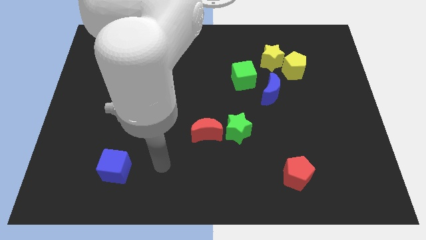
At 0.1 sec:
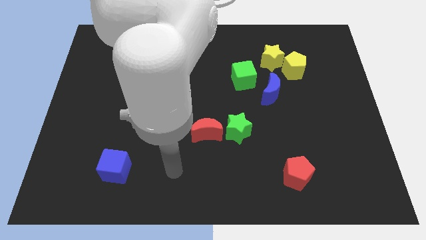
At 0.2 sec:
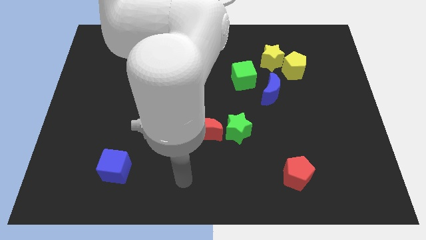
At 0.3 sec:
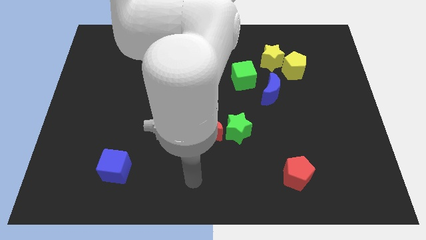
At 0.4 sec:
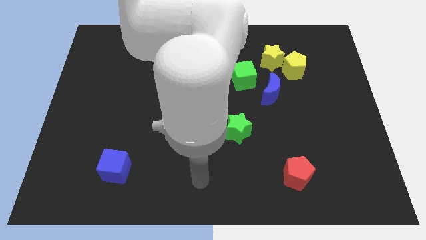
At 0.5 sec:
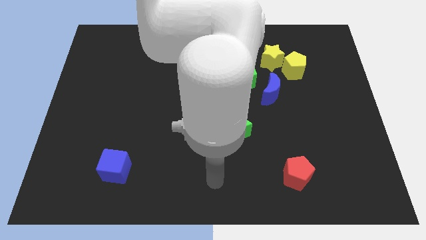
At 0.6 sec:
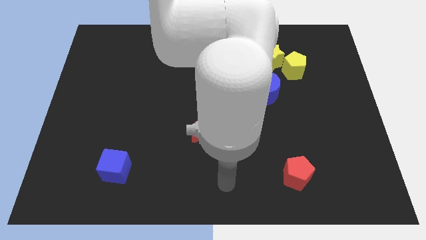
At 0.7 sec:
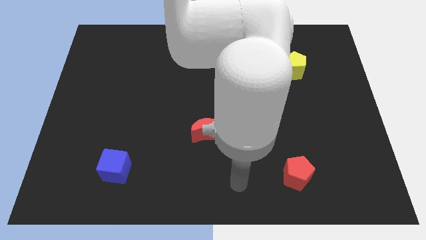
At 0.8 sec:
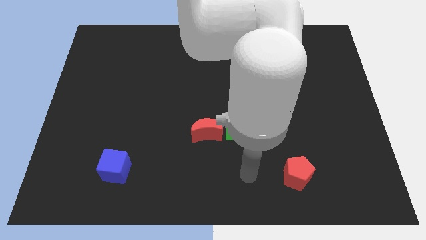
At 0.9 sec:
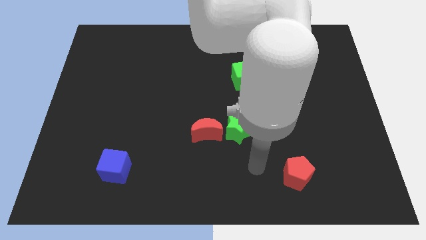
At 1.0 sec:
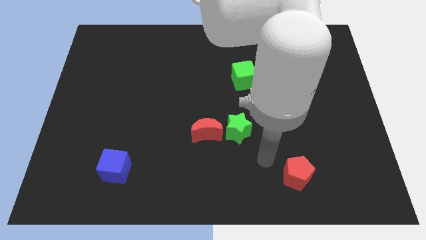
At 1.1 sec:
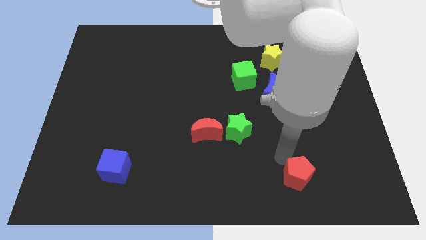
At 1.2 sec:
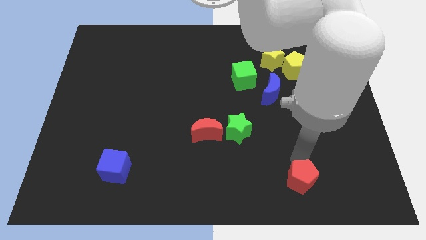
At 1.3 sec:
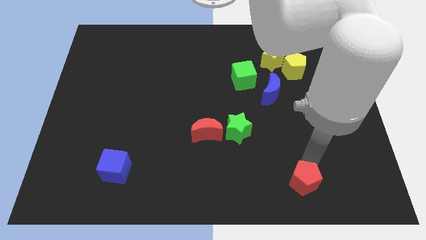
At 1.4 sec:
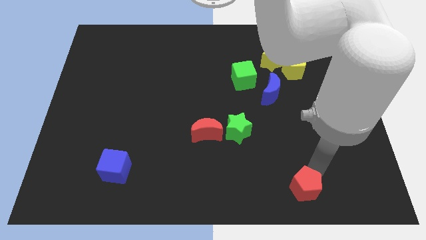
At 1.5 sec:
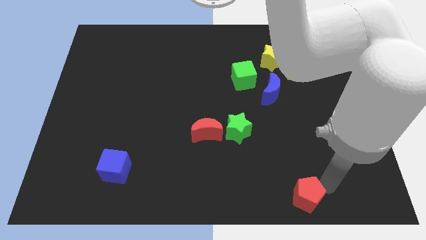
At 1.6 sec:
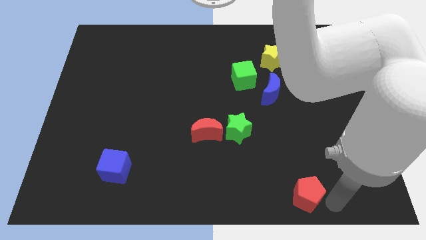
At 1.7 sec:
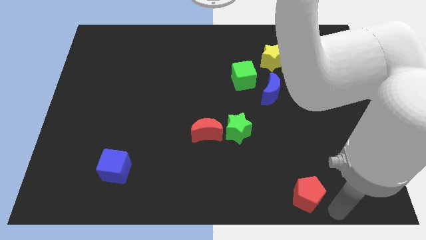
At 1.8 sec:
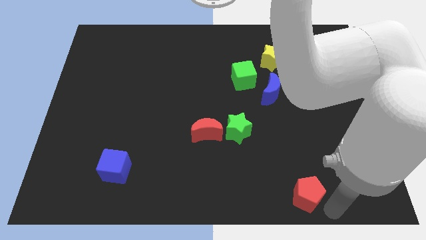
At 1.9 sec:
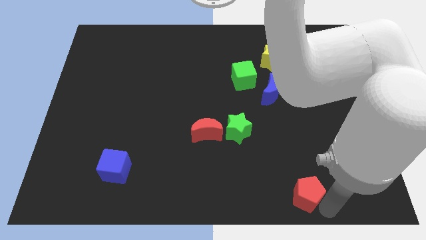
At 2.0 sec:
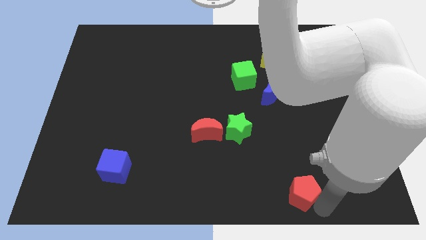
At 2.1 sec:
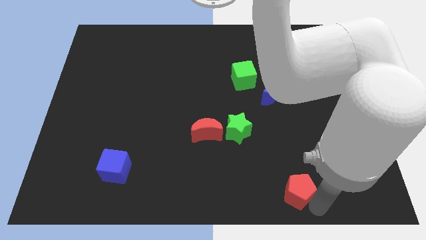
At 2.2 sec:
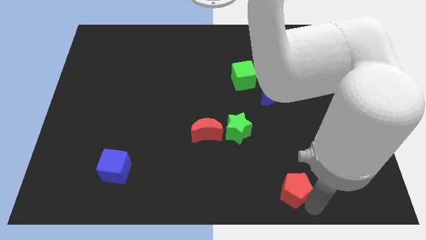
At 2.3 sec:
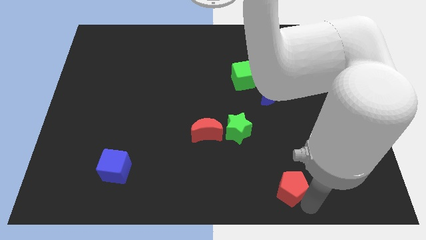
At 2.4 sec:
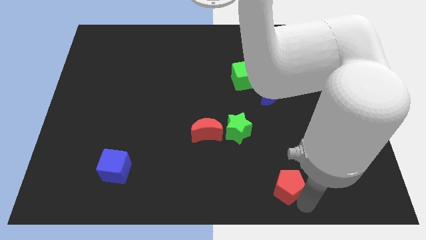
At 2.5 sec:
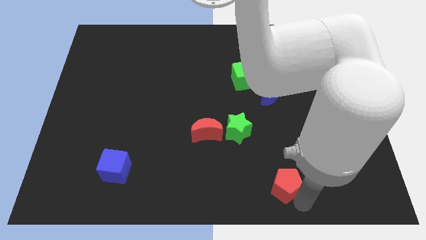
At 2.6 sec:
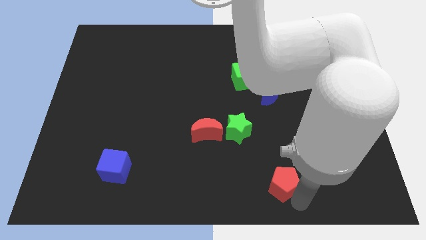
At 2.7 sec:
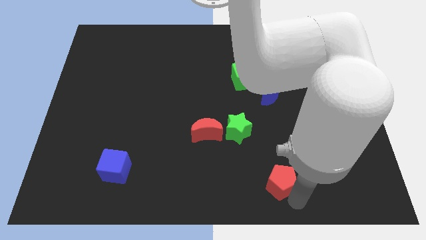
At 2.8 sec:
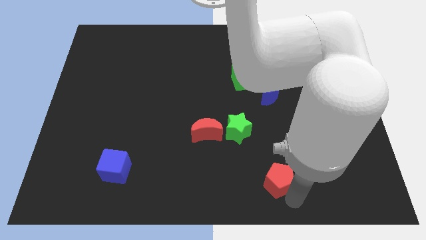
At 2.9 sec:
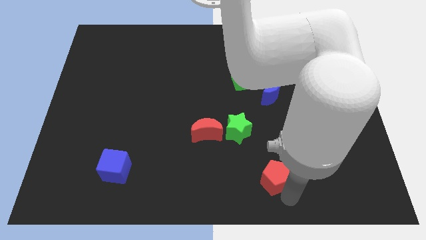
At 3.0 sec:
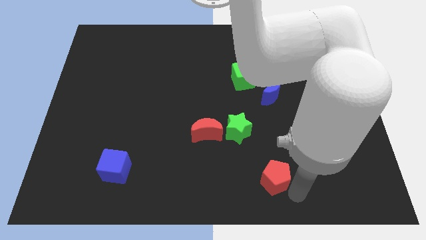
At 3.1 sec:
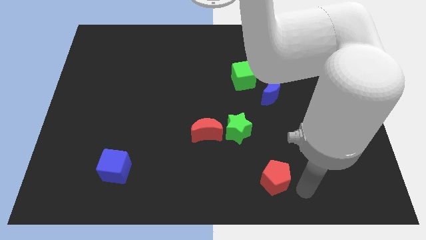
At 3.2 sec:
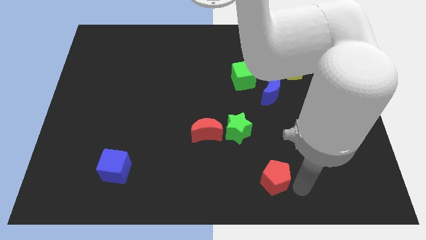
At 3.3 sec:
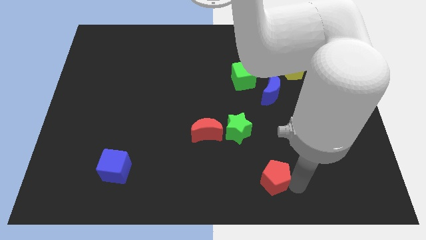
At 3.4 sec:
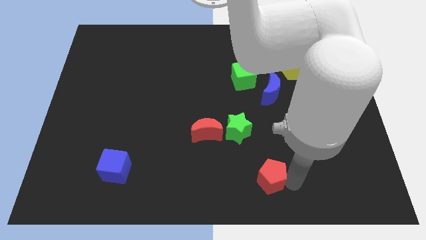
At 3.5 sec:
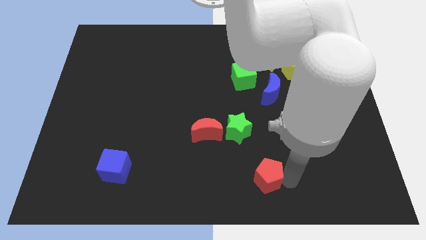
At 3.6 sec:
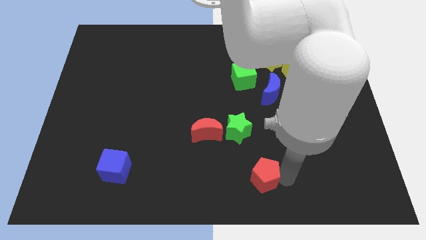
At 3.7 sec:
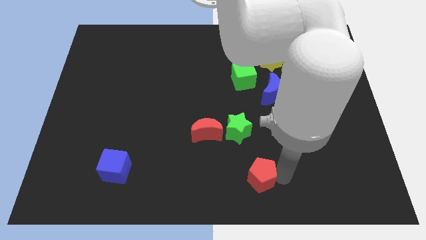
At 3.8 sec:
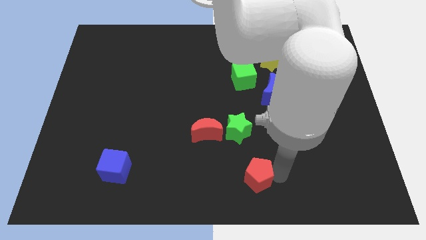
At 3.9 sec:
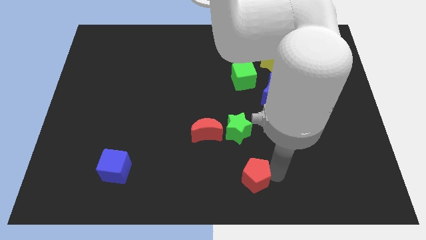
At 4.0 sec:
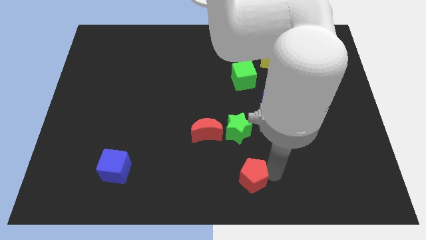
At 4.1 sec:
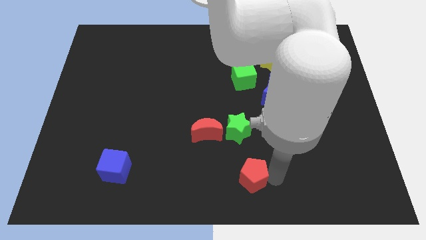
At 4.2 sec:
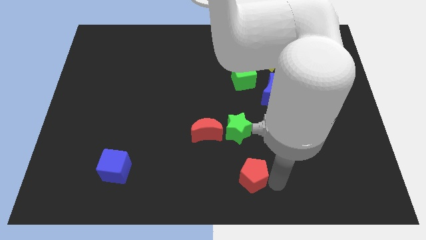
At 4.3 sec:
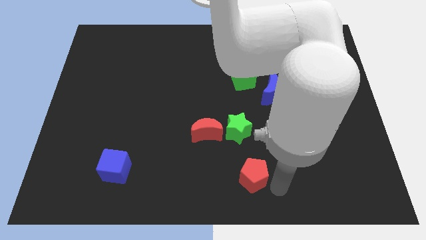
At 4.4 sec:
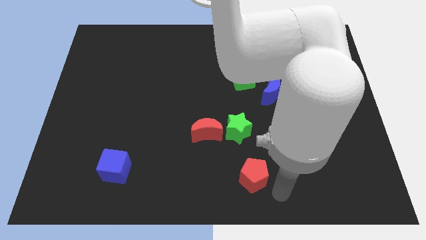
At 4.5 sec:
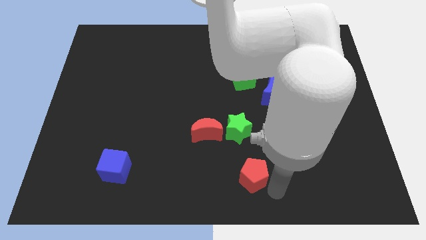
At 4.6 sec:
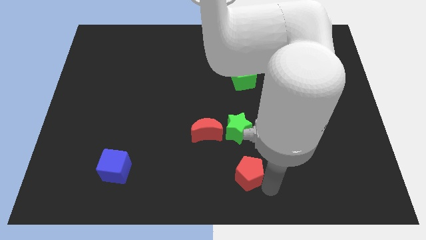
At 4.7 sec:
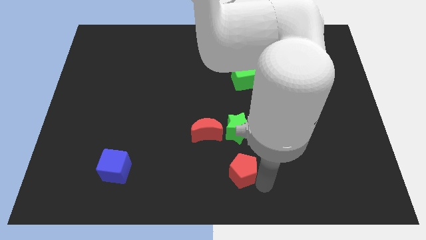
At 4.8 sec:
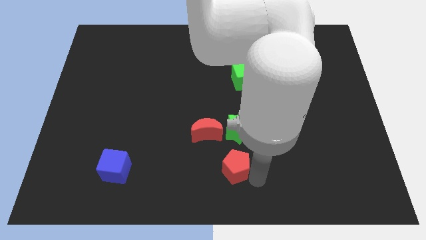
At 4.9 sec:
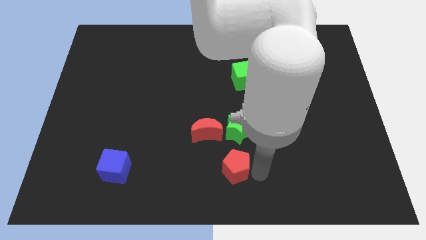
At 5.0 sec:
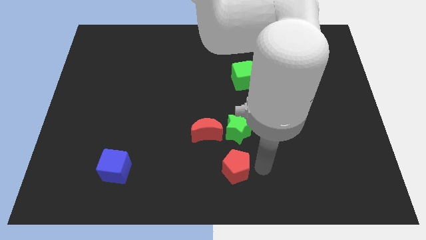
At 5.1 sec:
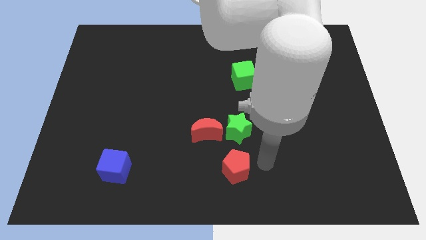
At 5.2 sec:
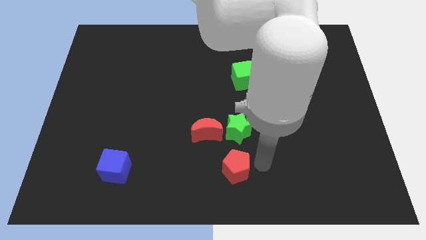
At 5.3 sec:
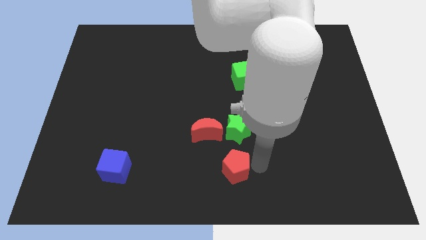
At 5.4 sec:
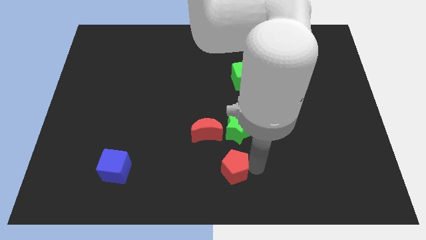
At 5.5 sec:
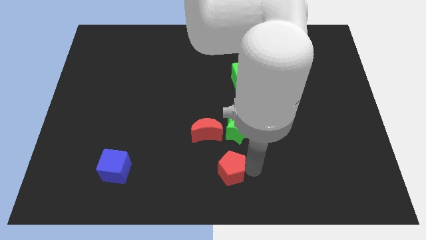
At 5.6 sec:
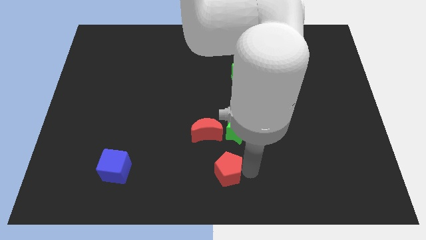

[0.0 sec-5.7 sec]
move the red pentagon below the red moon

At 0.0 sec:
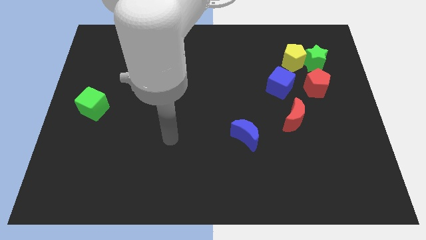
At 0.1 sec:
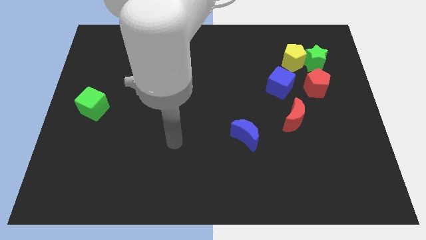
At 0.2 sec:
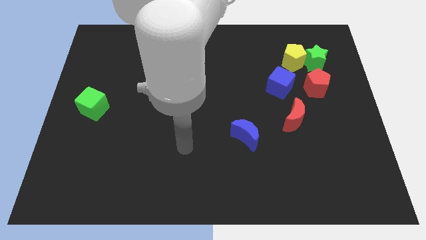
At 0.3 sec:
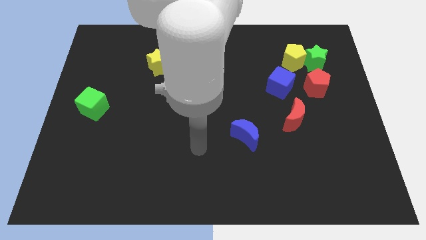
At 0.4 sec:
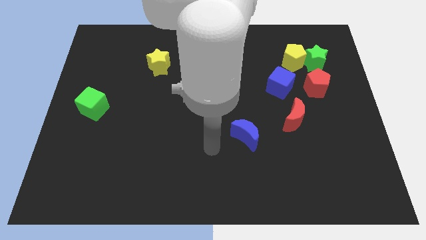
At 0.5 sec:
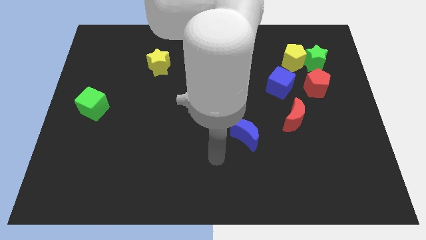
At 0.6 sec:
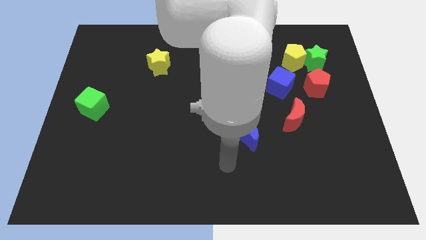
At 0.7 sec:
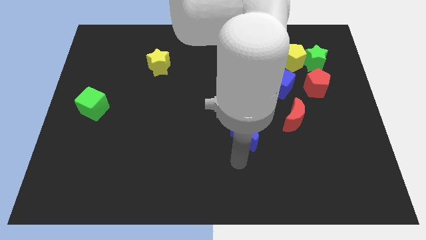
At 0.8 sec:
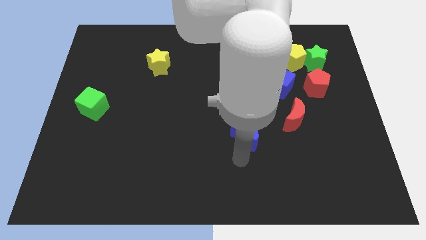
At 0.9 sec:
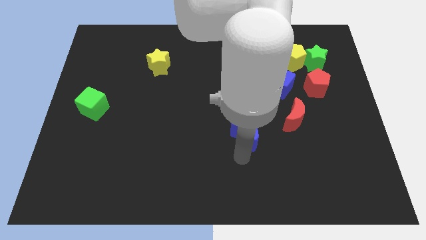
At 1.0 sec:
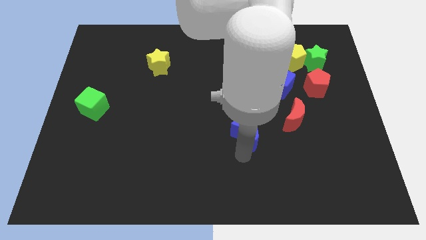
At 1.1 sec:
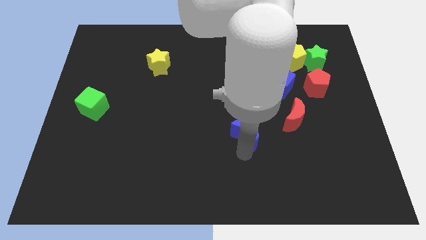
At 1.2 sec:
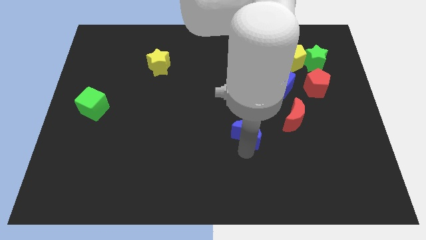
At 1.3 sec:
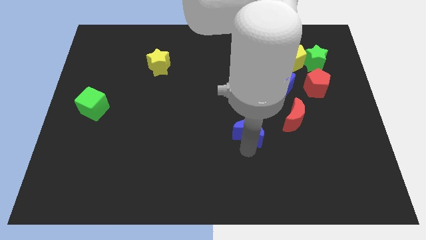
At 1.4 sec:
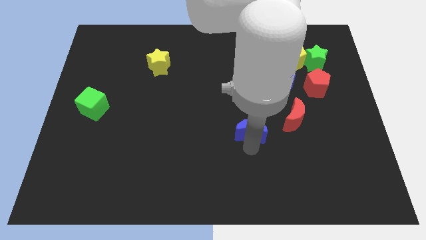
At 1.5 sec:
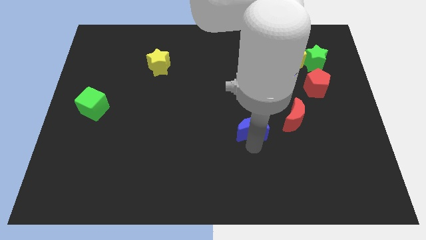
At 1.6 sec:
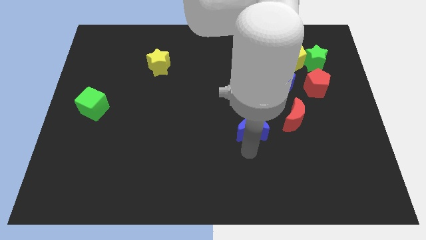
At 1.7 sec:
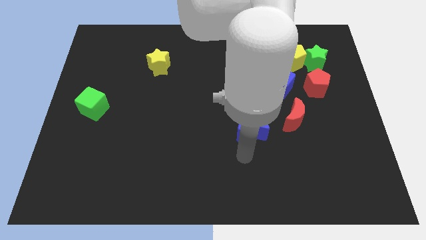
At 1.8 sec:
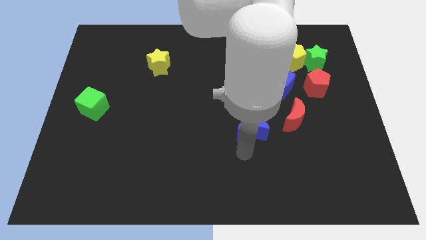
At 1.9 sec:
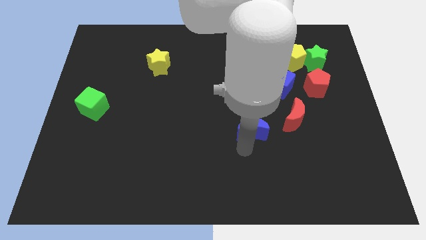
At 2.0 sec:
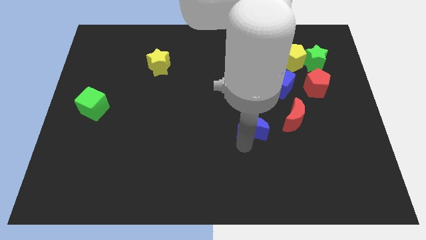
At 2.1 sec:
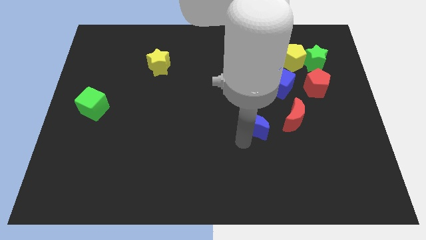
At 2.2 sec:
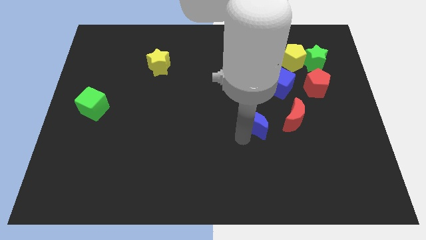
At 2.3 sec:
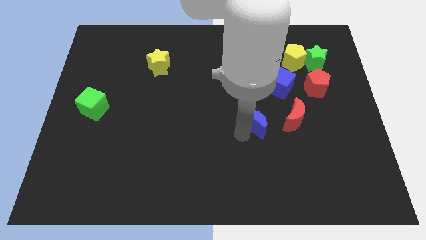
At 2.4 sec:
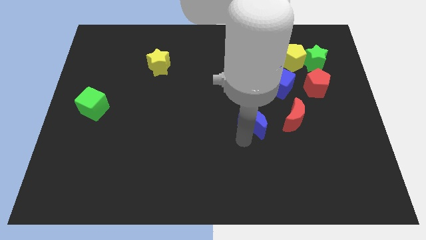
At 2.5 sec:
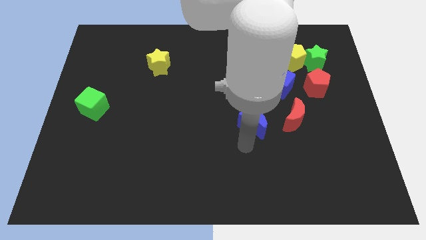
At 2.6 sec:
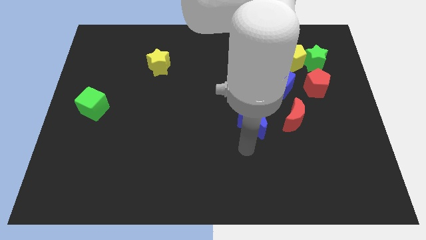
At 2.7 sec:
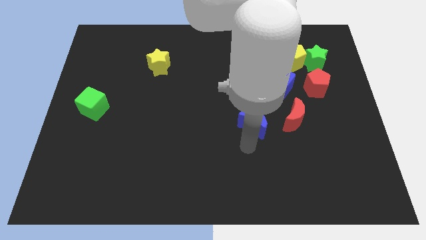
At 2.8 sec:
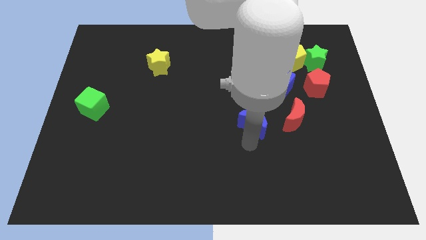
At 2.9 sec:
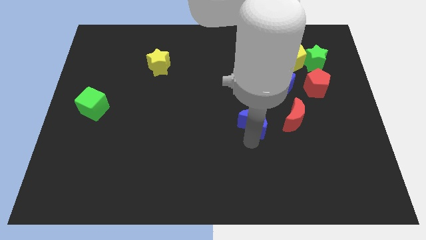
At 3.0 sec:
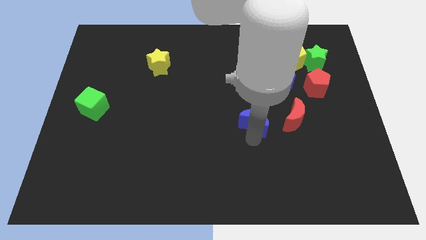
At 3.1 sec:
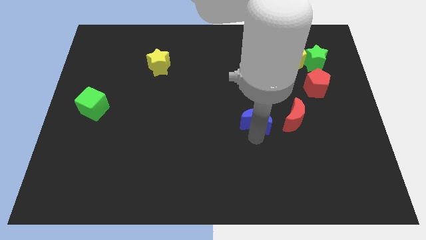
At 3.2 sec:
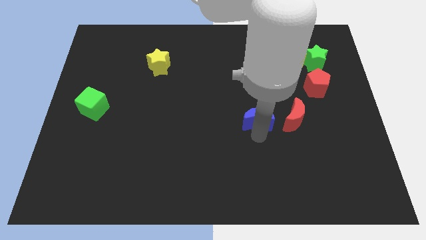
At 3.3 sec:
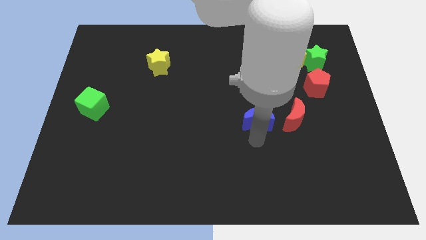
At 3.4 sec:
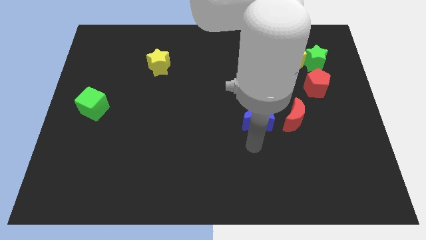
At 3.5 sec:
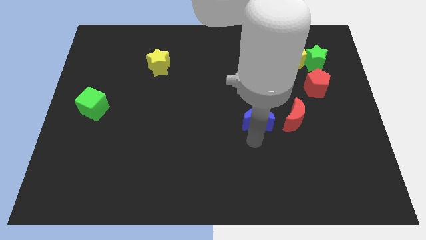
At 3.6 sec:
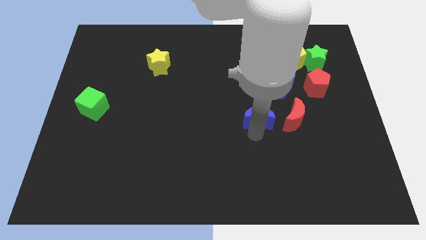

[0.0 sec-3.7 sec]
move the blue moon to the bottom left of the blue cube
